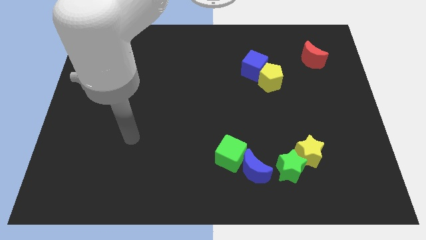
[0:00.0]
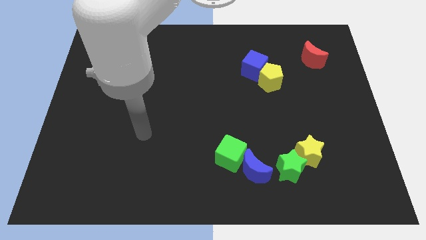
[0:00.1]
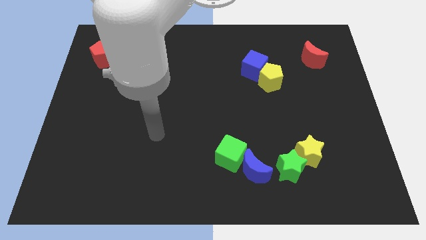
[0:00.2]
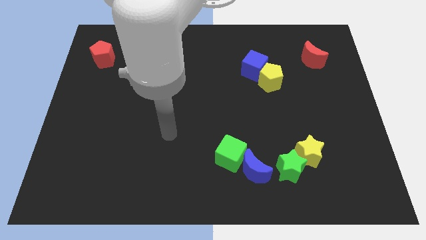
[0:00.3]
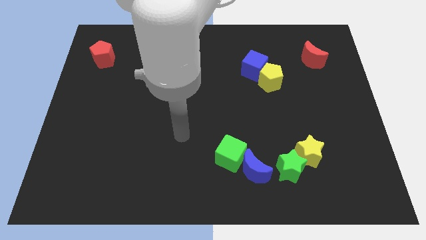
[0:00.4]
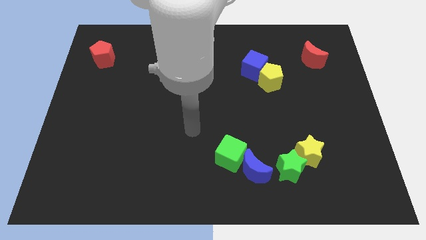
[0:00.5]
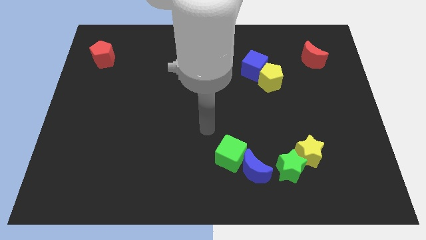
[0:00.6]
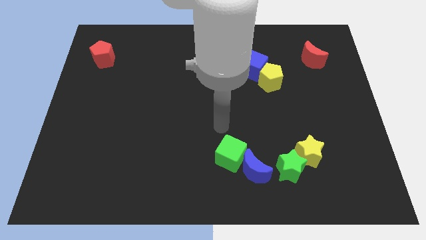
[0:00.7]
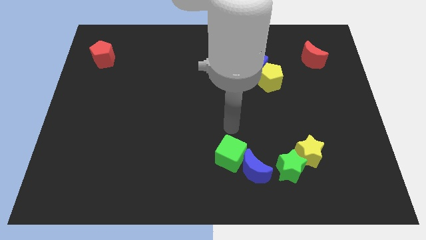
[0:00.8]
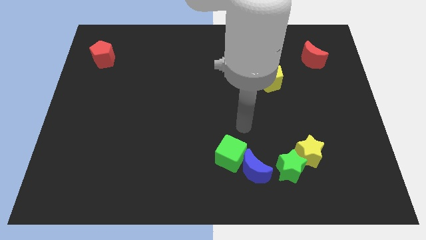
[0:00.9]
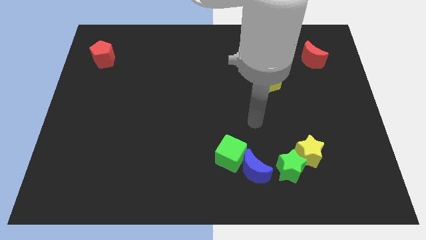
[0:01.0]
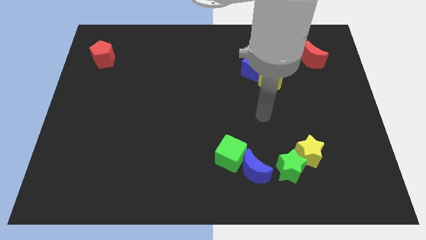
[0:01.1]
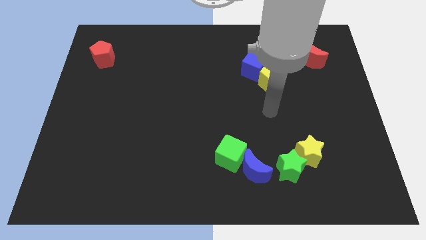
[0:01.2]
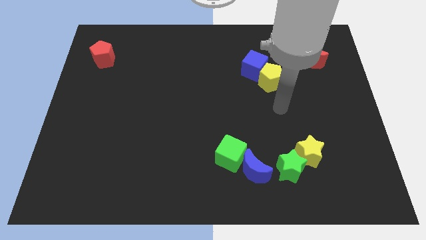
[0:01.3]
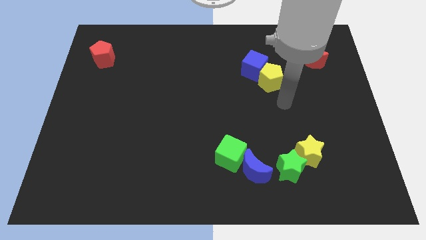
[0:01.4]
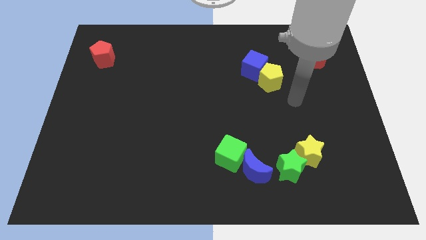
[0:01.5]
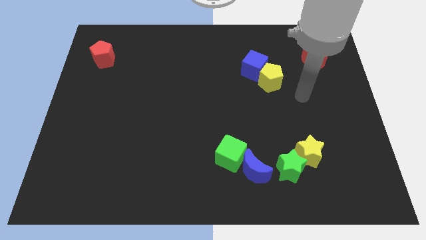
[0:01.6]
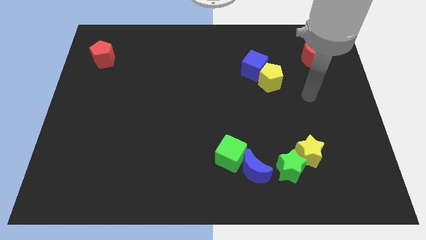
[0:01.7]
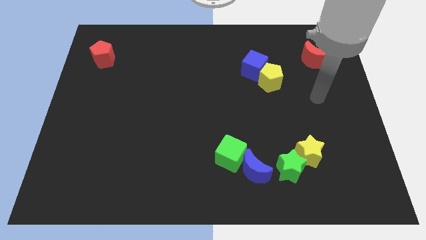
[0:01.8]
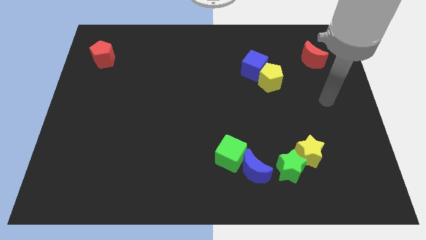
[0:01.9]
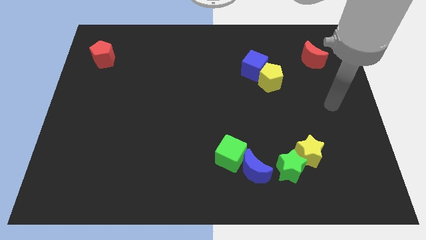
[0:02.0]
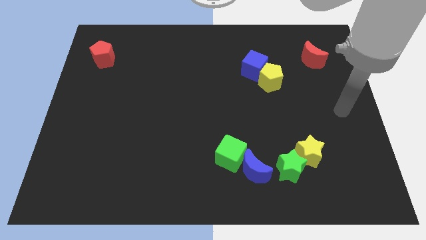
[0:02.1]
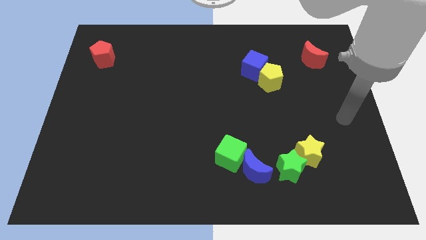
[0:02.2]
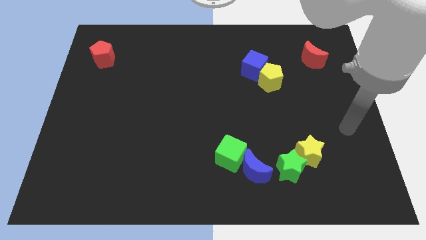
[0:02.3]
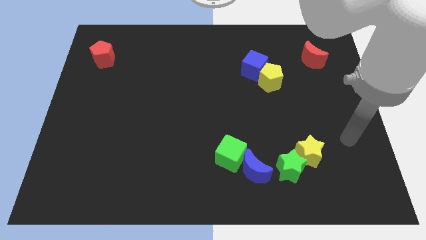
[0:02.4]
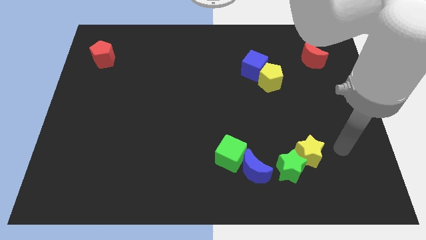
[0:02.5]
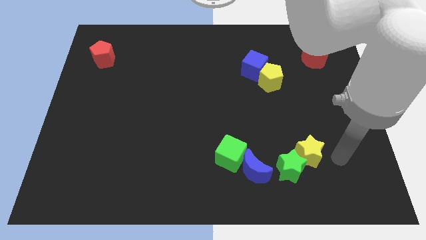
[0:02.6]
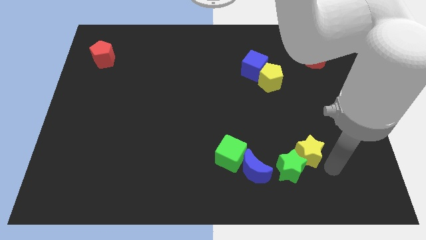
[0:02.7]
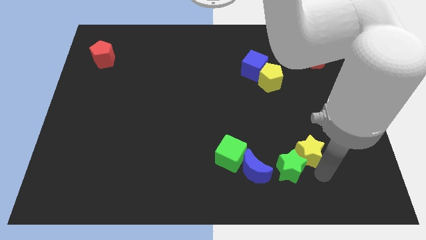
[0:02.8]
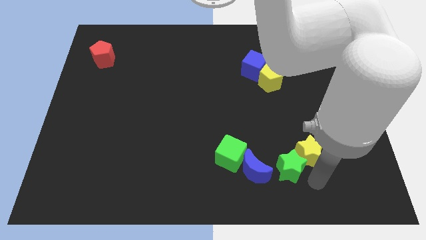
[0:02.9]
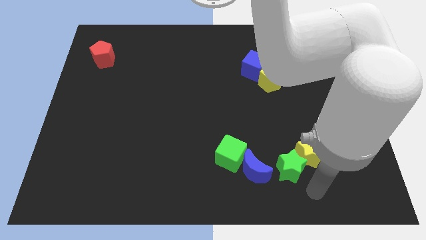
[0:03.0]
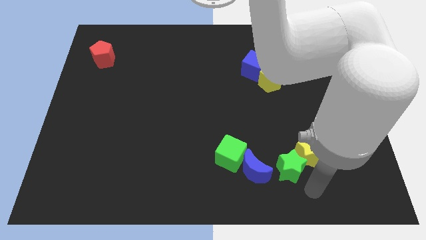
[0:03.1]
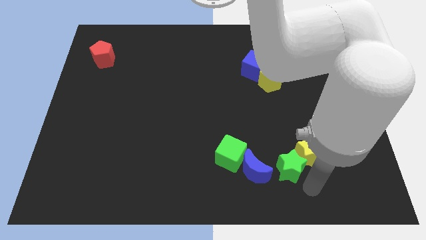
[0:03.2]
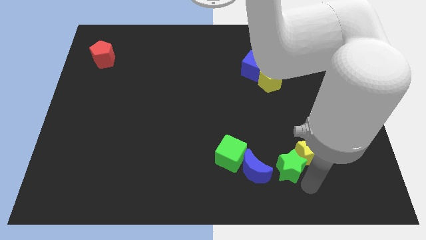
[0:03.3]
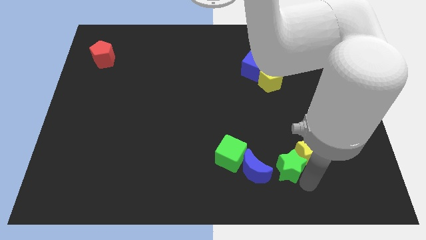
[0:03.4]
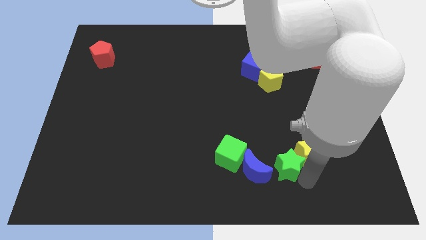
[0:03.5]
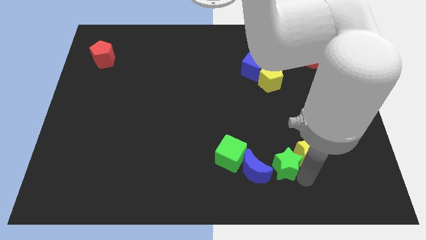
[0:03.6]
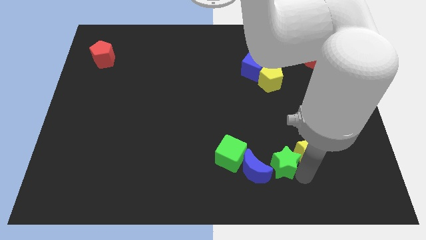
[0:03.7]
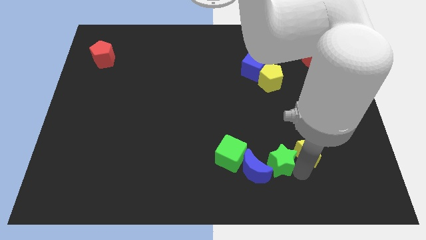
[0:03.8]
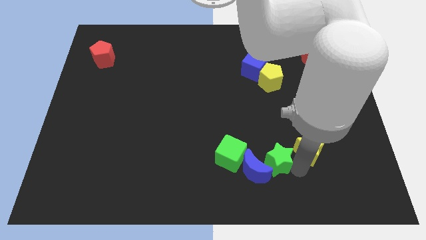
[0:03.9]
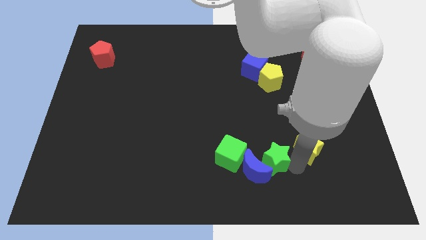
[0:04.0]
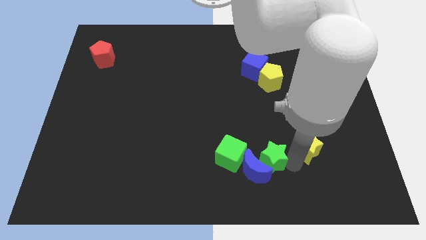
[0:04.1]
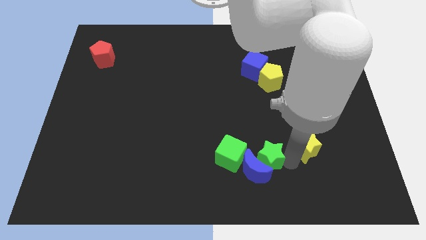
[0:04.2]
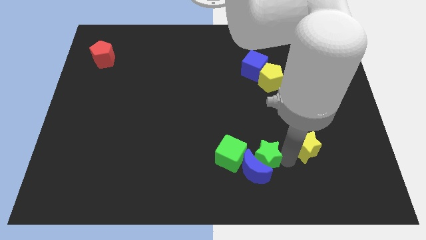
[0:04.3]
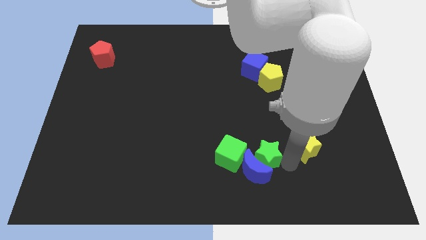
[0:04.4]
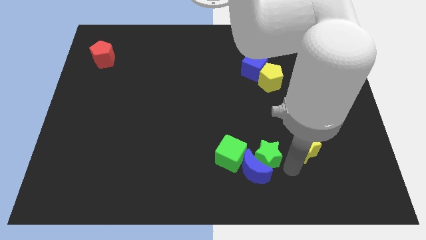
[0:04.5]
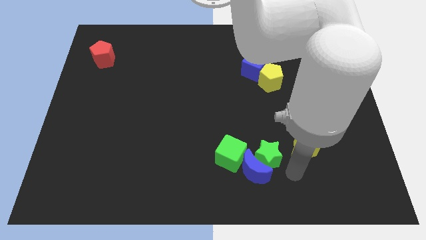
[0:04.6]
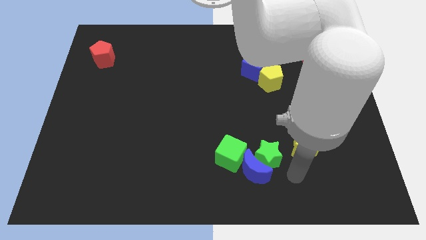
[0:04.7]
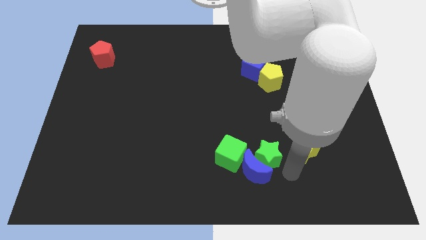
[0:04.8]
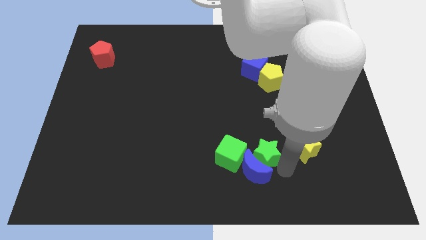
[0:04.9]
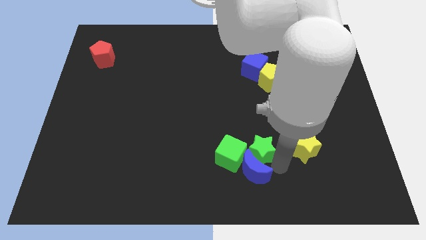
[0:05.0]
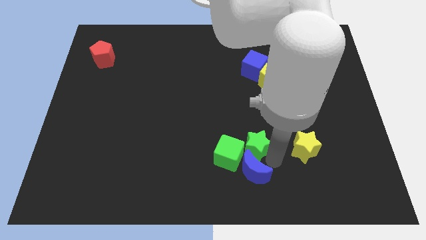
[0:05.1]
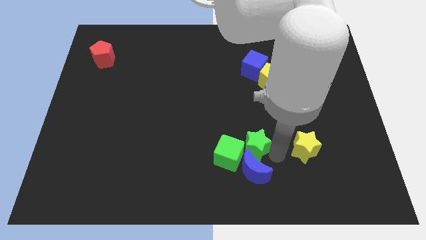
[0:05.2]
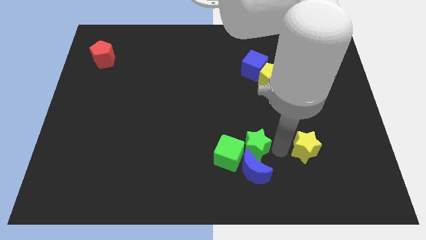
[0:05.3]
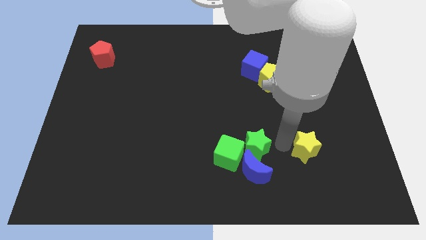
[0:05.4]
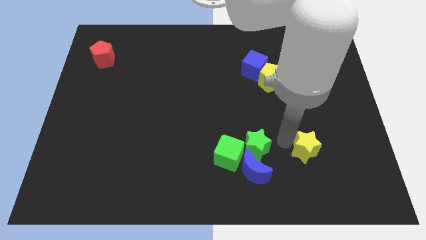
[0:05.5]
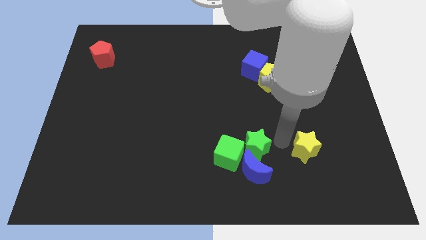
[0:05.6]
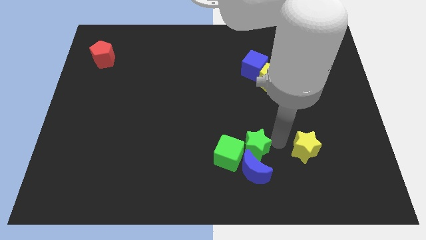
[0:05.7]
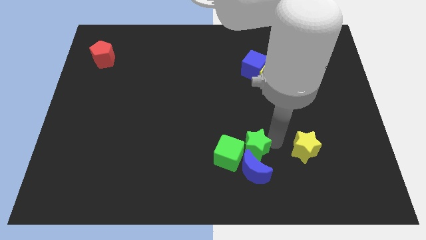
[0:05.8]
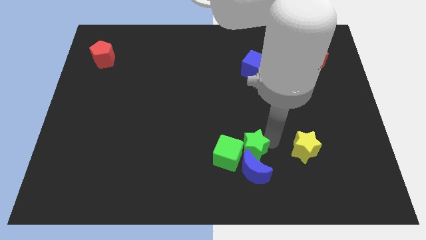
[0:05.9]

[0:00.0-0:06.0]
put the green star towards the green cube

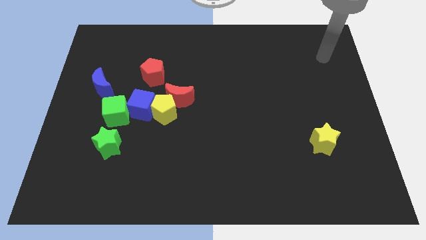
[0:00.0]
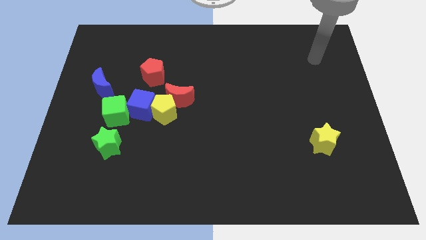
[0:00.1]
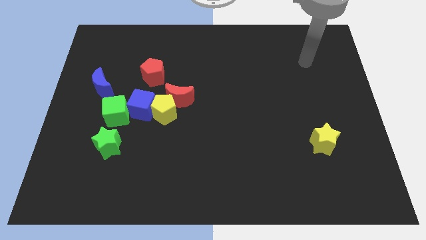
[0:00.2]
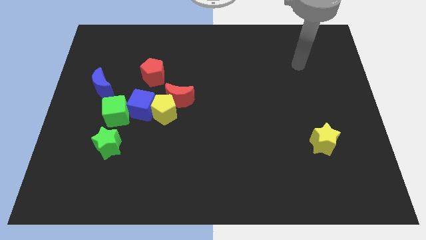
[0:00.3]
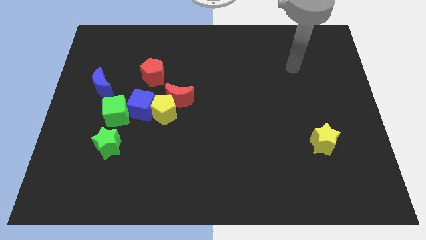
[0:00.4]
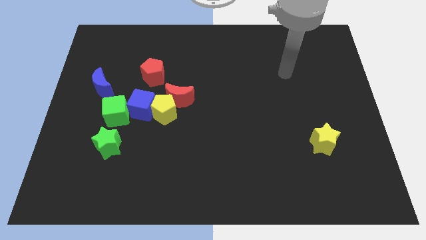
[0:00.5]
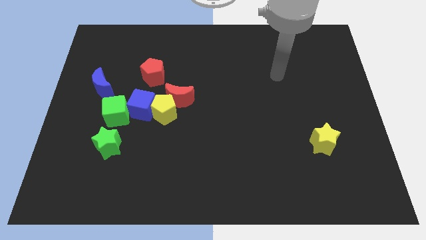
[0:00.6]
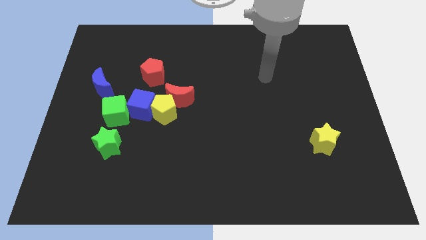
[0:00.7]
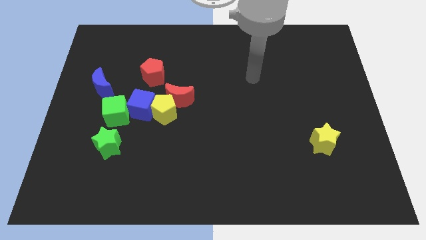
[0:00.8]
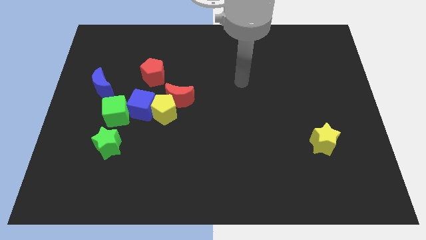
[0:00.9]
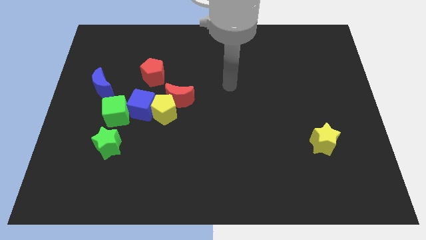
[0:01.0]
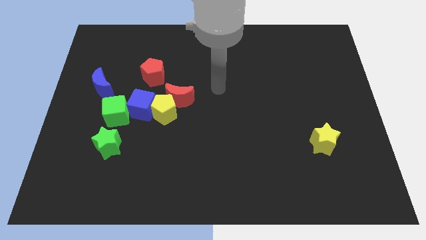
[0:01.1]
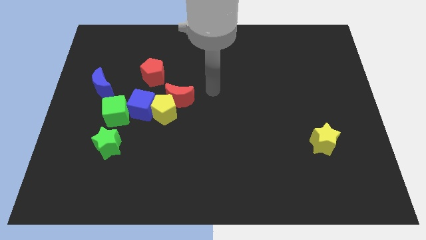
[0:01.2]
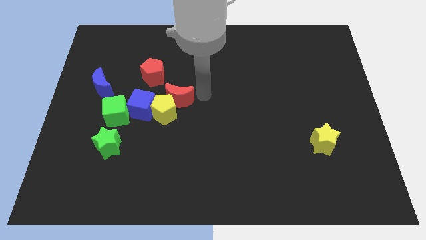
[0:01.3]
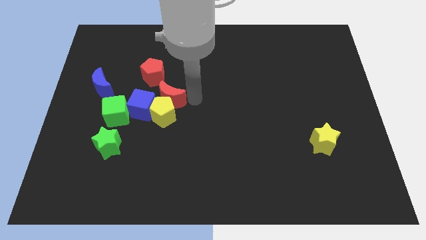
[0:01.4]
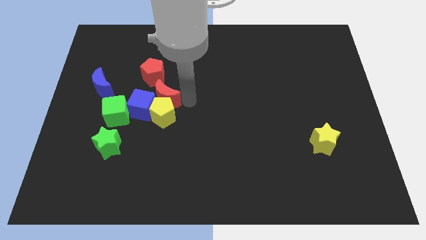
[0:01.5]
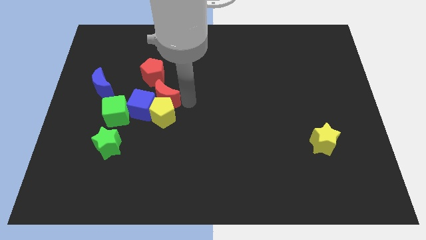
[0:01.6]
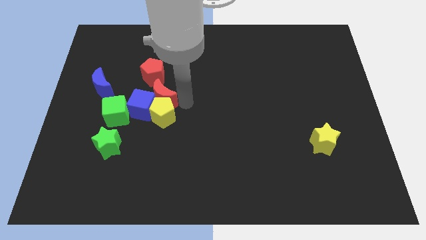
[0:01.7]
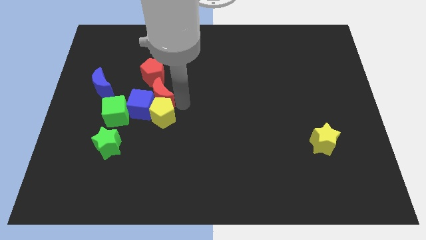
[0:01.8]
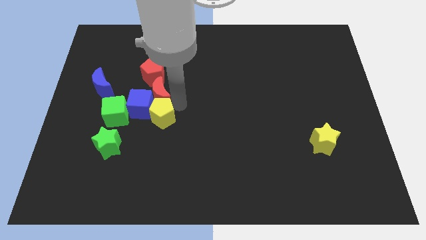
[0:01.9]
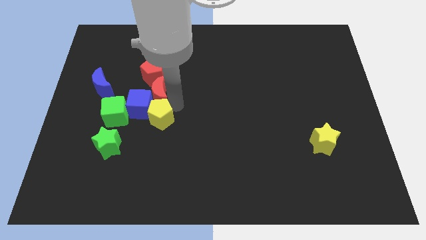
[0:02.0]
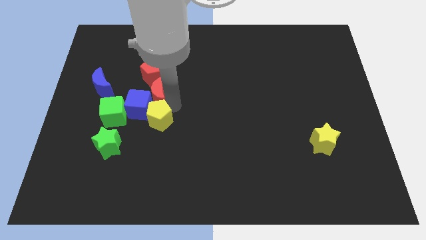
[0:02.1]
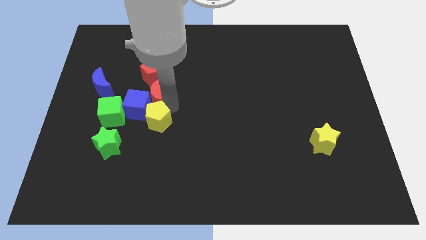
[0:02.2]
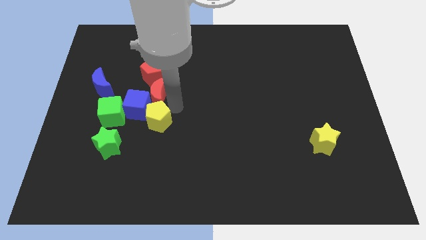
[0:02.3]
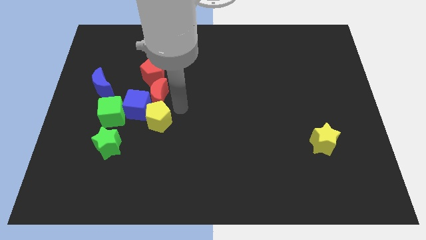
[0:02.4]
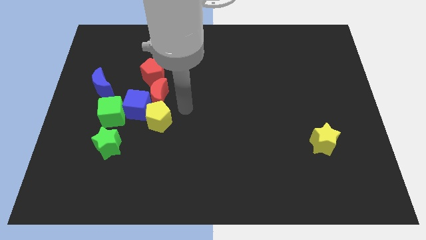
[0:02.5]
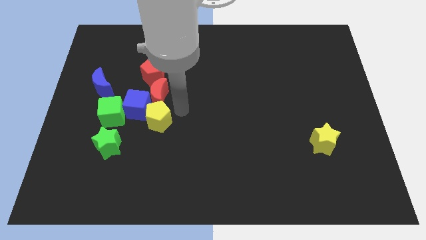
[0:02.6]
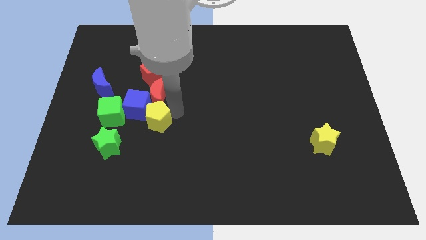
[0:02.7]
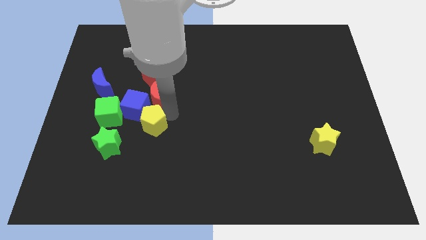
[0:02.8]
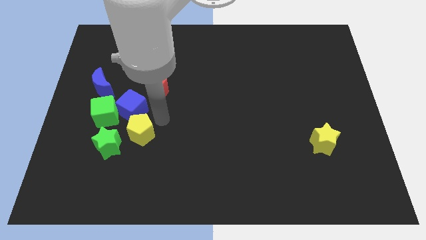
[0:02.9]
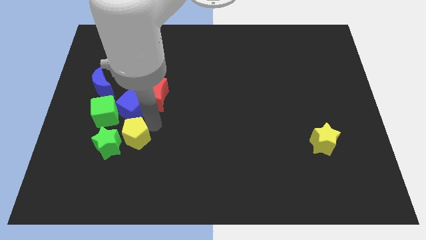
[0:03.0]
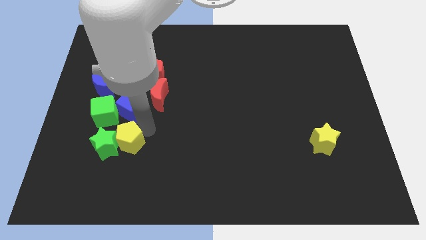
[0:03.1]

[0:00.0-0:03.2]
move the yellow pentagon close to the green star
